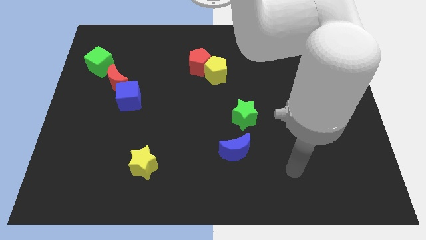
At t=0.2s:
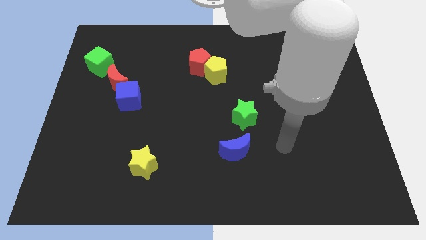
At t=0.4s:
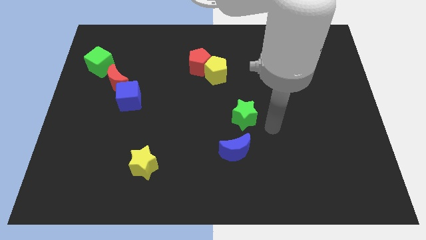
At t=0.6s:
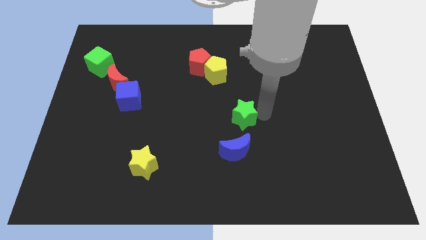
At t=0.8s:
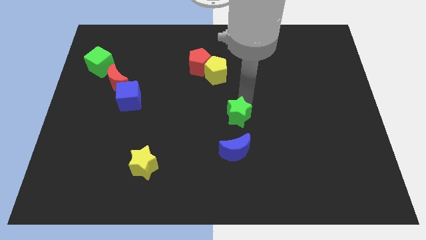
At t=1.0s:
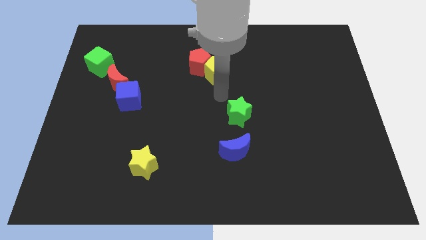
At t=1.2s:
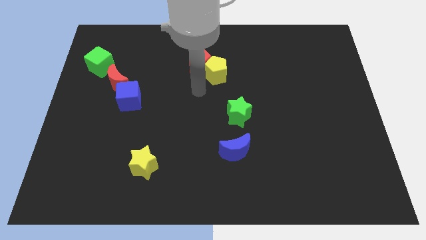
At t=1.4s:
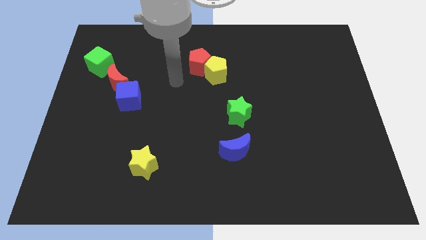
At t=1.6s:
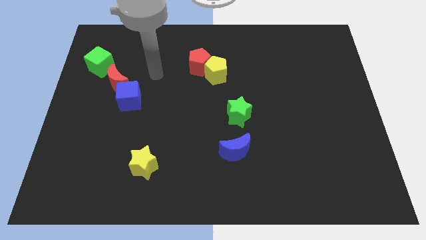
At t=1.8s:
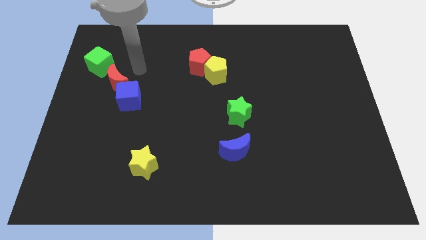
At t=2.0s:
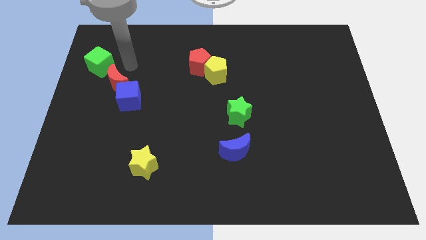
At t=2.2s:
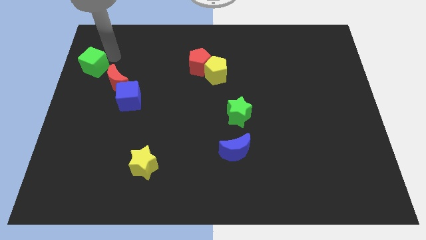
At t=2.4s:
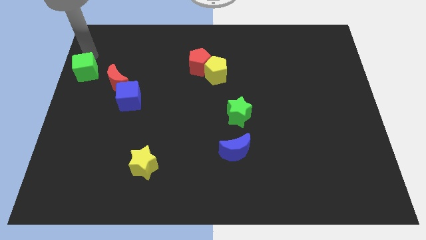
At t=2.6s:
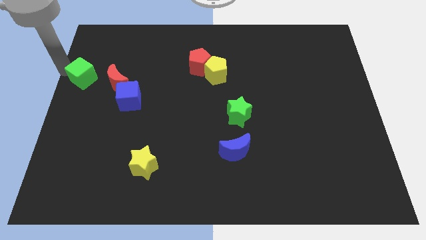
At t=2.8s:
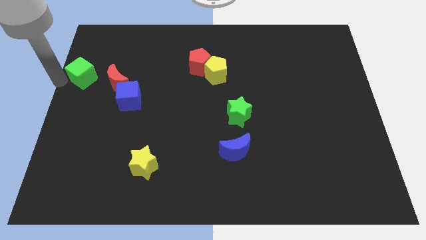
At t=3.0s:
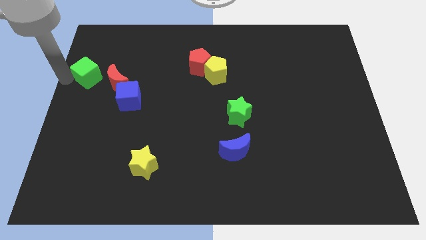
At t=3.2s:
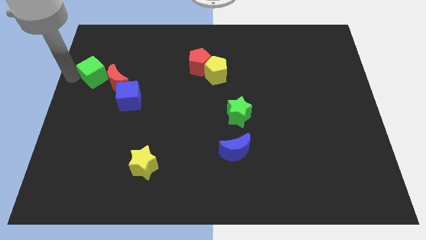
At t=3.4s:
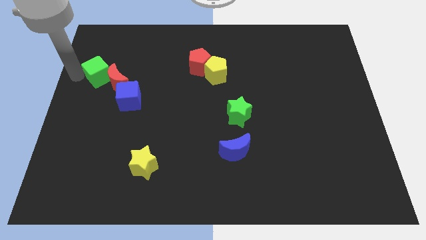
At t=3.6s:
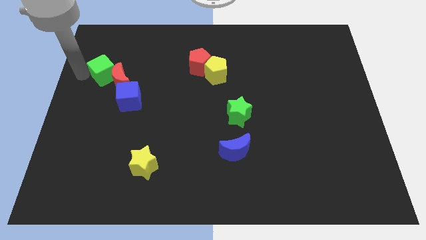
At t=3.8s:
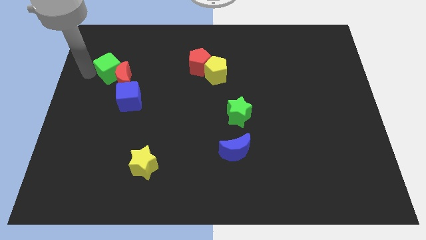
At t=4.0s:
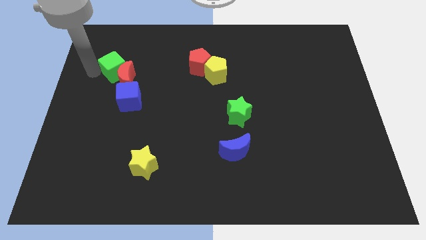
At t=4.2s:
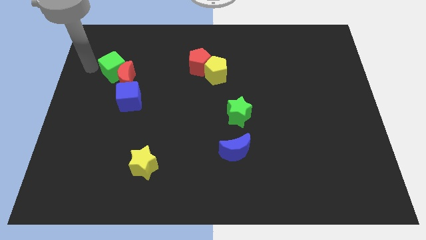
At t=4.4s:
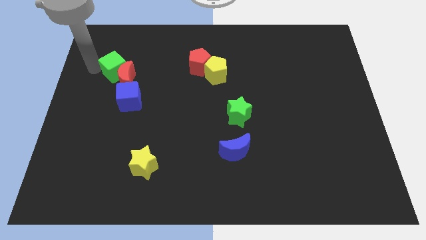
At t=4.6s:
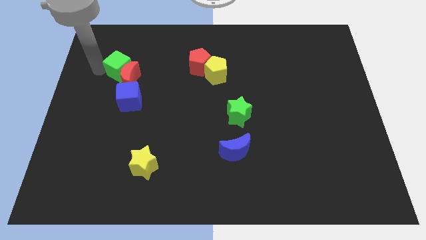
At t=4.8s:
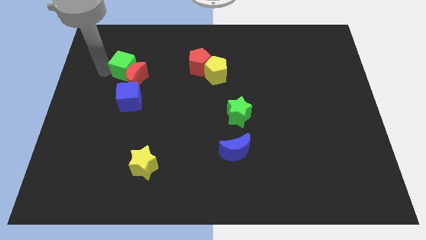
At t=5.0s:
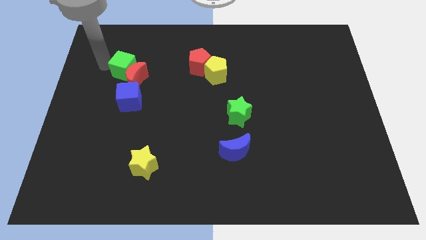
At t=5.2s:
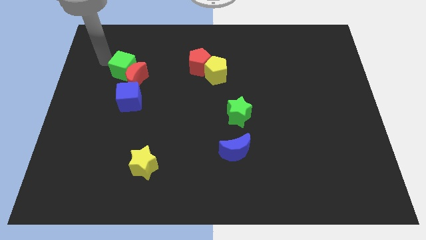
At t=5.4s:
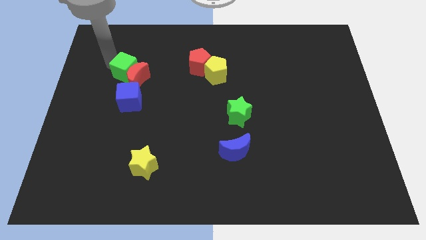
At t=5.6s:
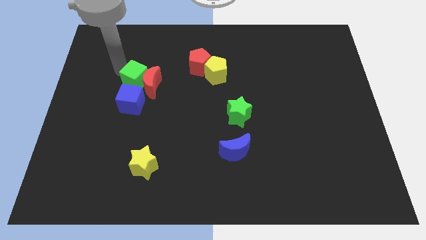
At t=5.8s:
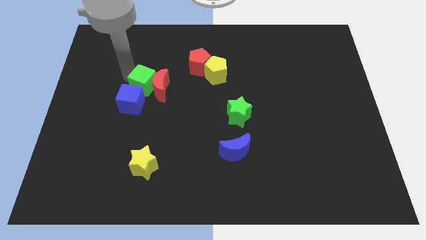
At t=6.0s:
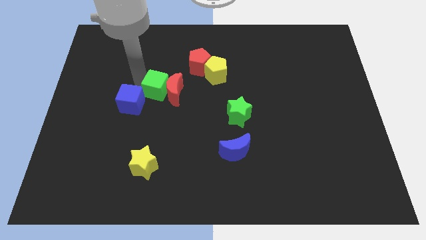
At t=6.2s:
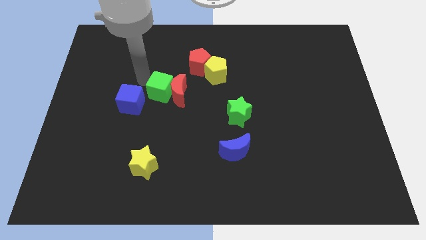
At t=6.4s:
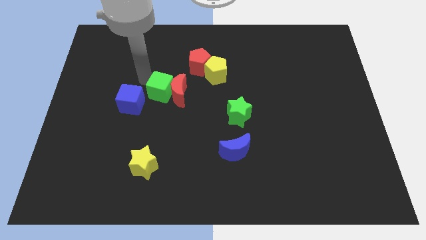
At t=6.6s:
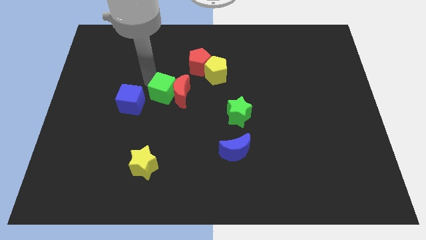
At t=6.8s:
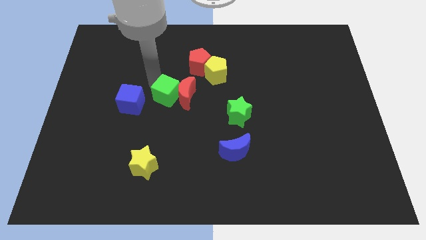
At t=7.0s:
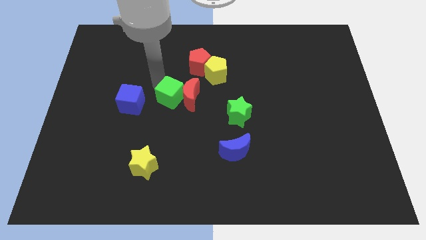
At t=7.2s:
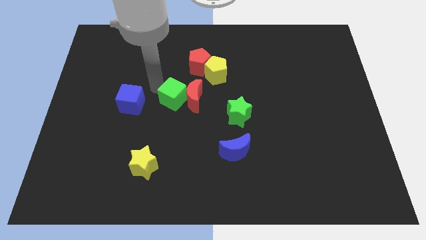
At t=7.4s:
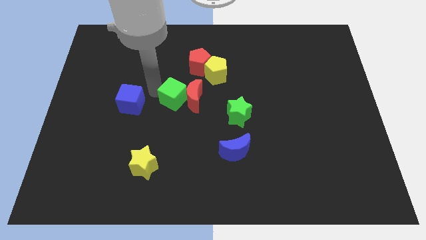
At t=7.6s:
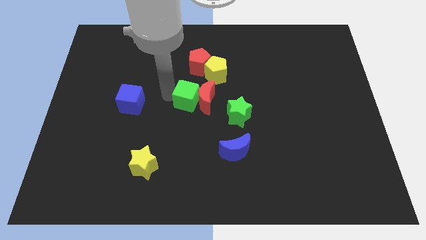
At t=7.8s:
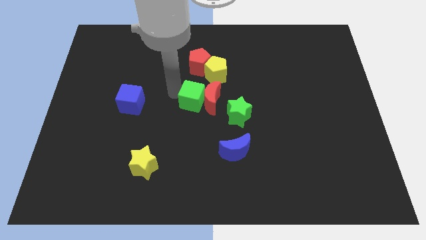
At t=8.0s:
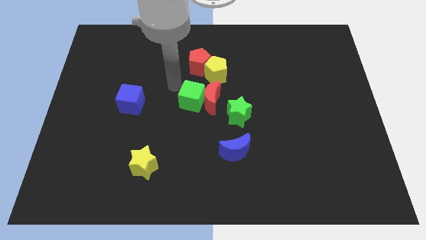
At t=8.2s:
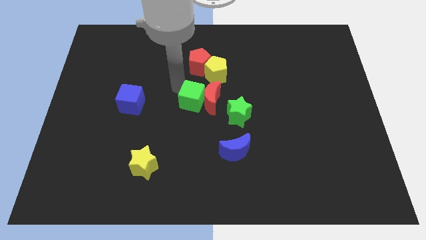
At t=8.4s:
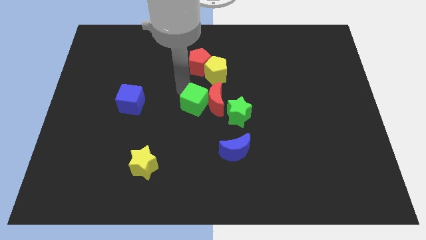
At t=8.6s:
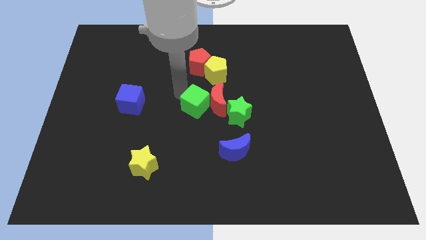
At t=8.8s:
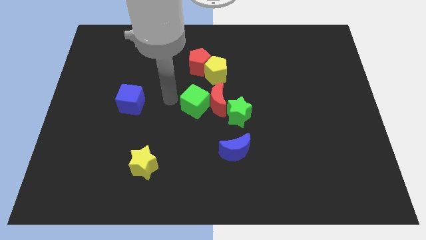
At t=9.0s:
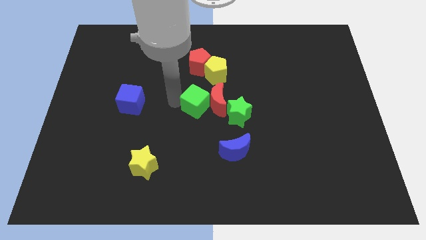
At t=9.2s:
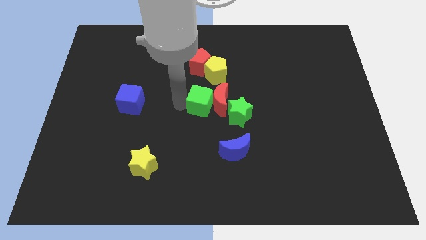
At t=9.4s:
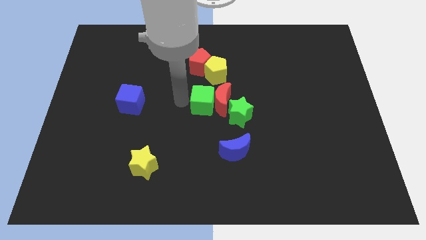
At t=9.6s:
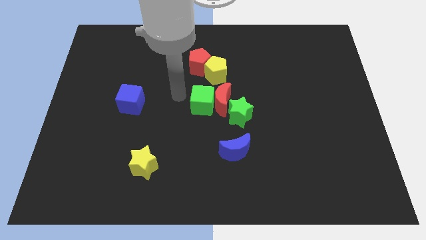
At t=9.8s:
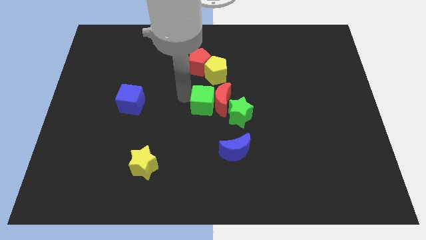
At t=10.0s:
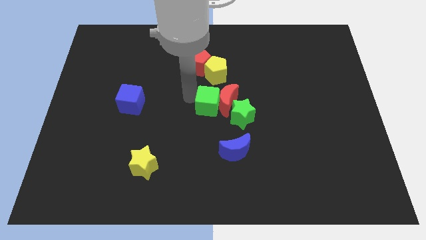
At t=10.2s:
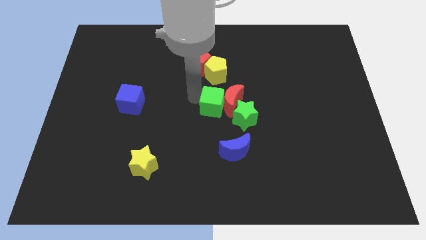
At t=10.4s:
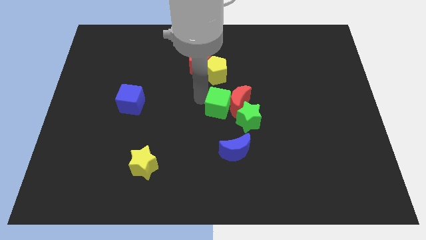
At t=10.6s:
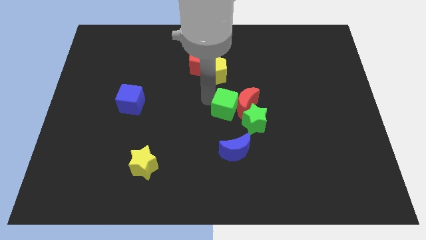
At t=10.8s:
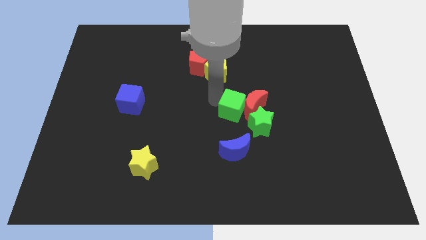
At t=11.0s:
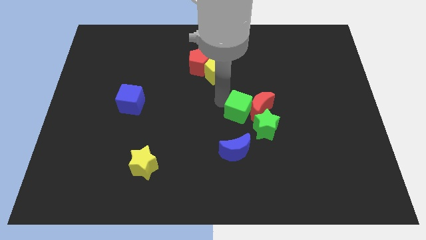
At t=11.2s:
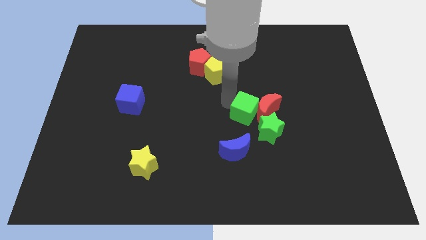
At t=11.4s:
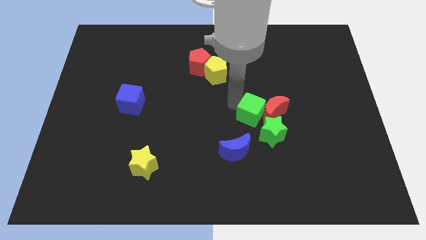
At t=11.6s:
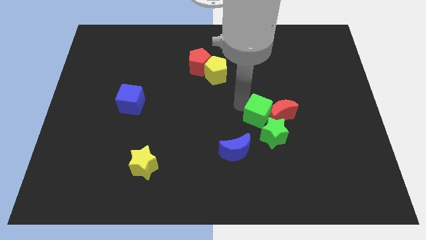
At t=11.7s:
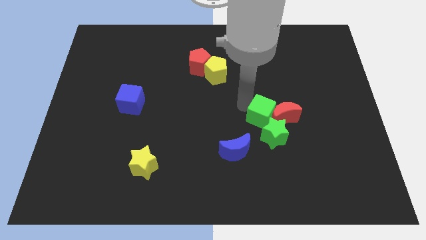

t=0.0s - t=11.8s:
put the green cube towards the green star

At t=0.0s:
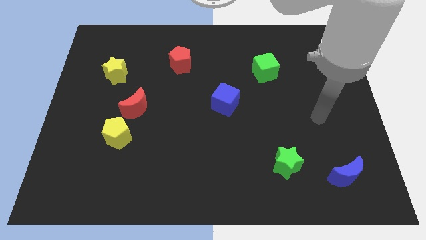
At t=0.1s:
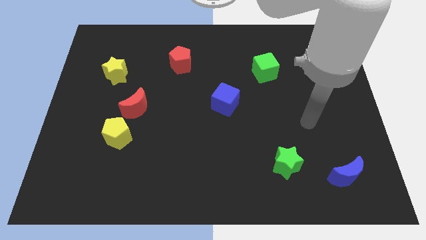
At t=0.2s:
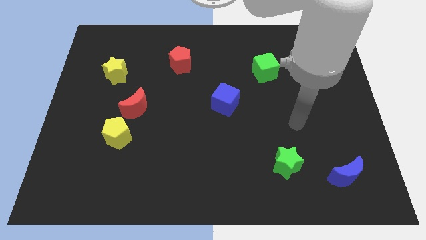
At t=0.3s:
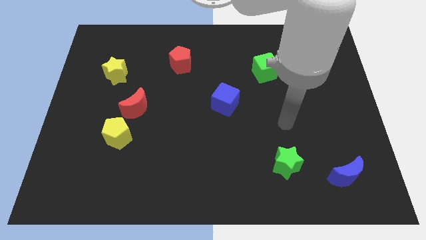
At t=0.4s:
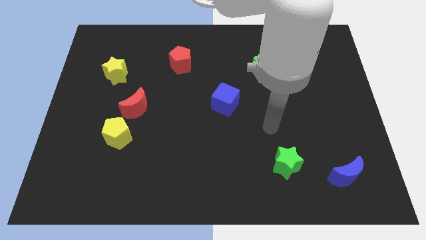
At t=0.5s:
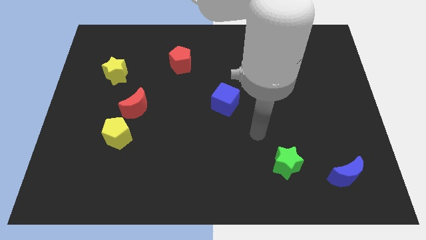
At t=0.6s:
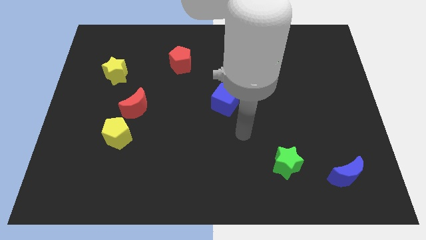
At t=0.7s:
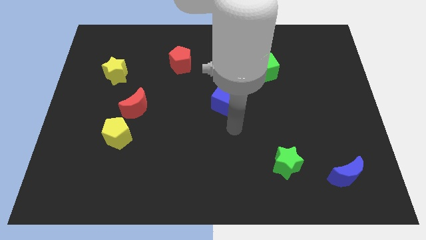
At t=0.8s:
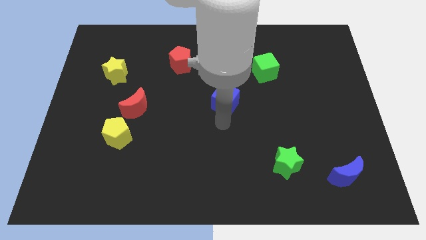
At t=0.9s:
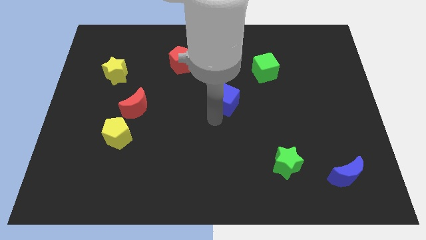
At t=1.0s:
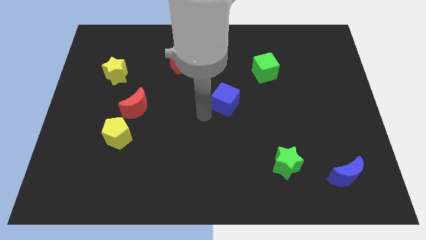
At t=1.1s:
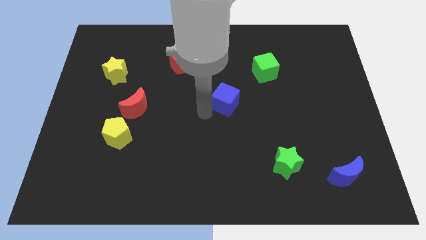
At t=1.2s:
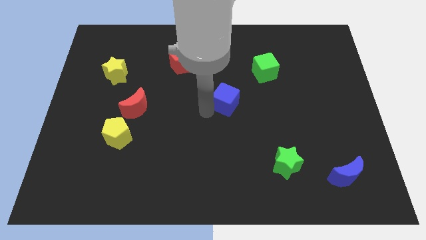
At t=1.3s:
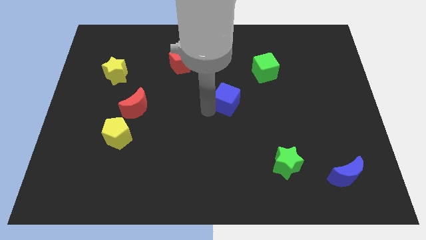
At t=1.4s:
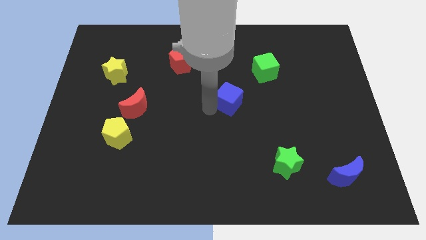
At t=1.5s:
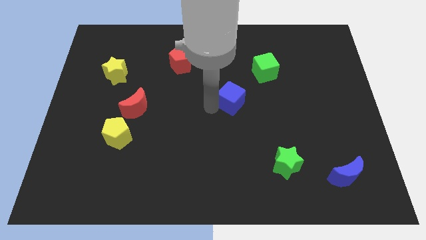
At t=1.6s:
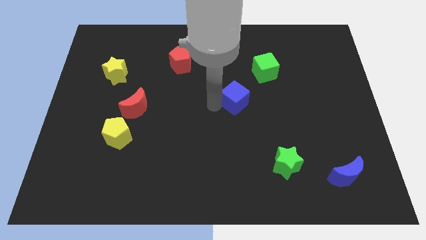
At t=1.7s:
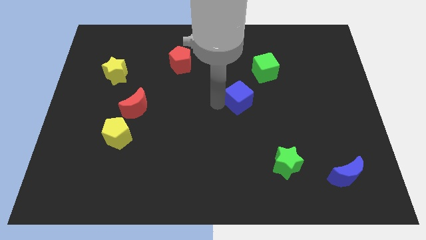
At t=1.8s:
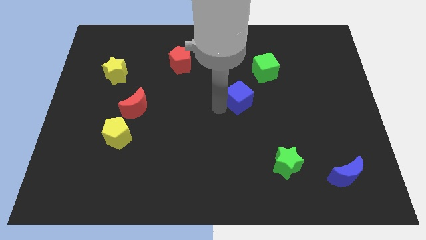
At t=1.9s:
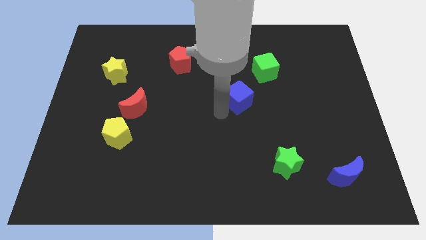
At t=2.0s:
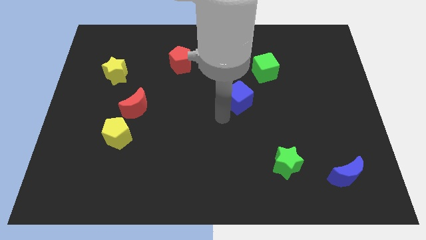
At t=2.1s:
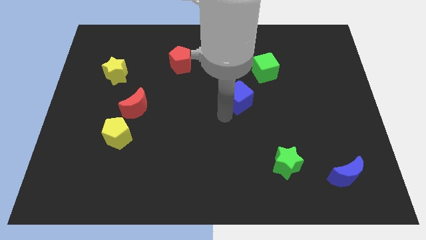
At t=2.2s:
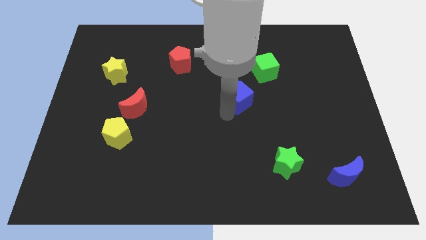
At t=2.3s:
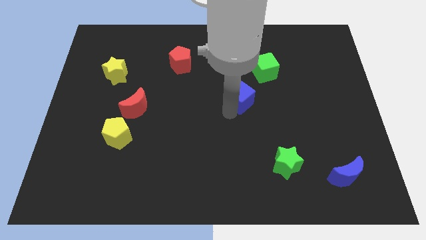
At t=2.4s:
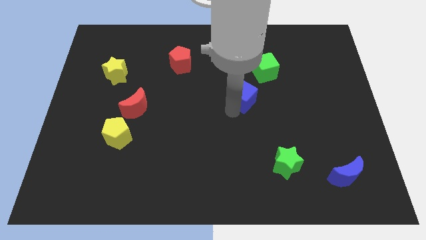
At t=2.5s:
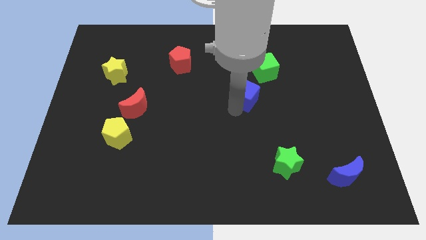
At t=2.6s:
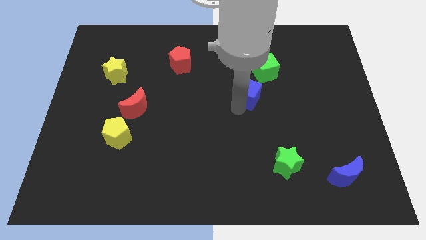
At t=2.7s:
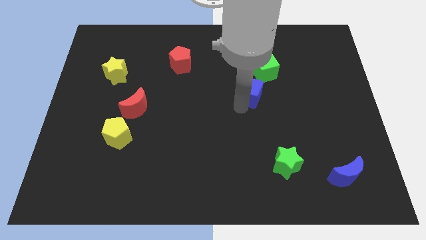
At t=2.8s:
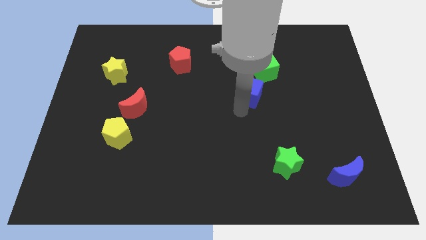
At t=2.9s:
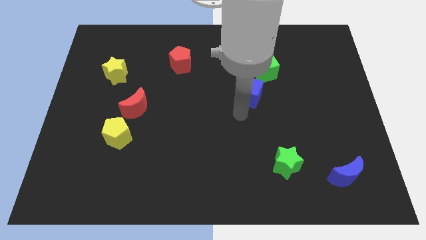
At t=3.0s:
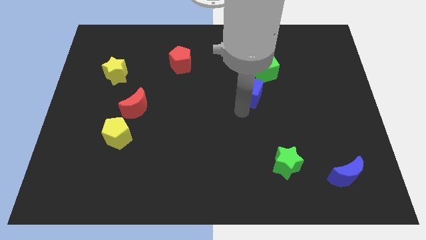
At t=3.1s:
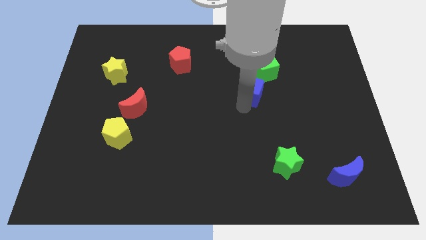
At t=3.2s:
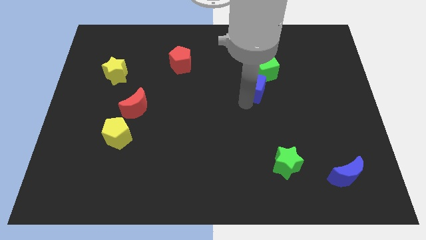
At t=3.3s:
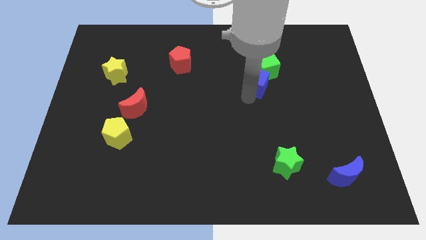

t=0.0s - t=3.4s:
push the blue cube next to the green cube
